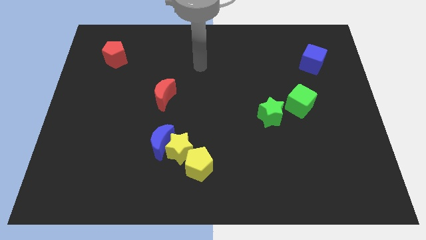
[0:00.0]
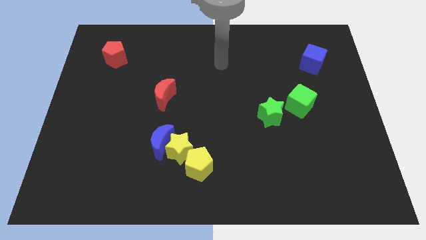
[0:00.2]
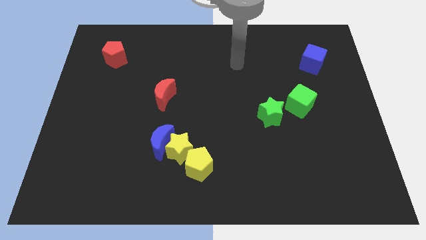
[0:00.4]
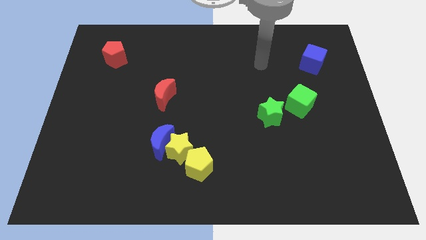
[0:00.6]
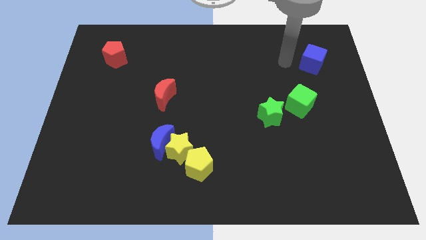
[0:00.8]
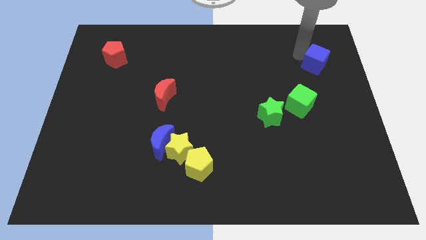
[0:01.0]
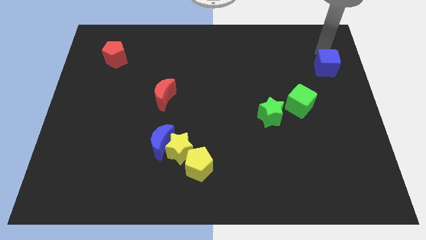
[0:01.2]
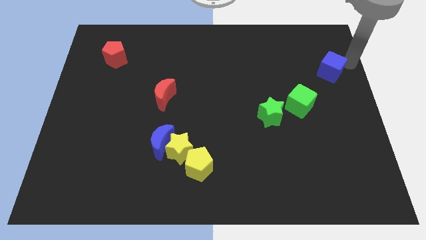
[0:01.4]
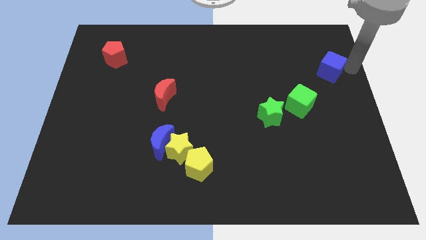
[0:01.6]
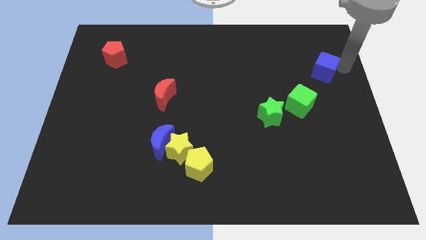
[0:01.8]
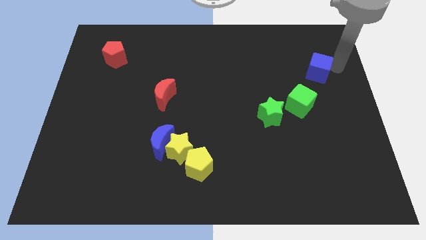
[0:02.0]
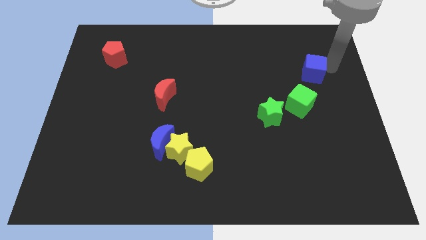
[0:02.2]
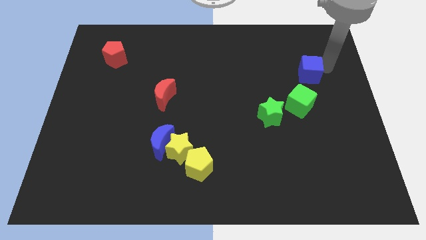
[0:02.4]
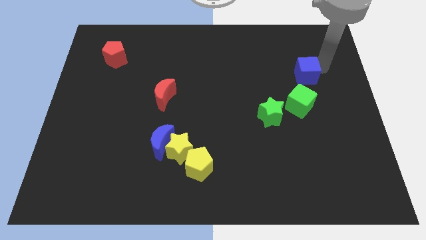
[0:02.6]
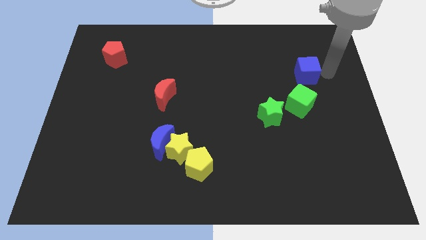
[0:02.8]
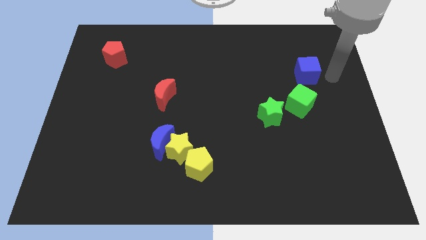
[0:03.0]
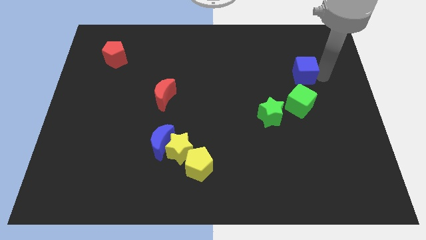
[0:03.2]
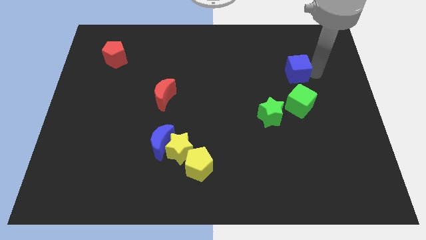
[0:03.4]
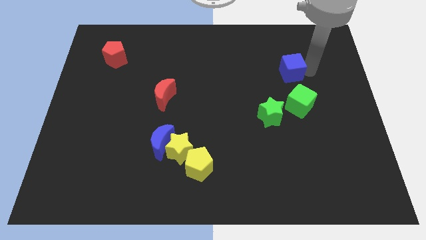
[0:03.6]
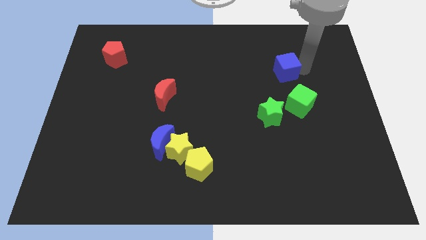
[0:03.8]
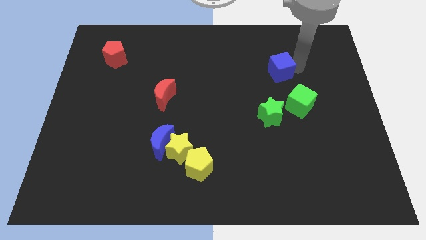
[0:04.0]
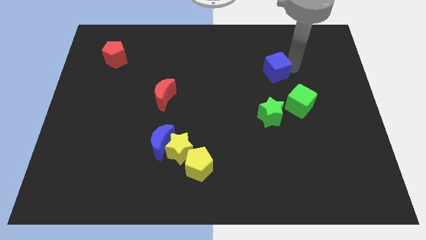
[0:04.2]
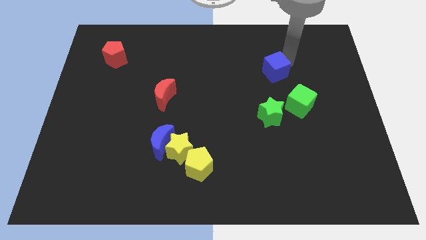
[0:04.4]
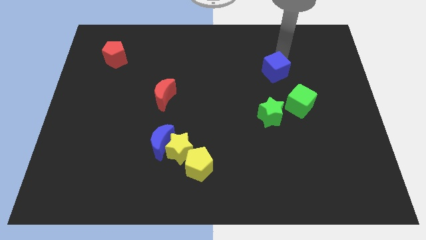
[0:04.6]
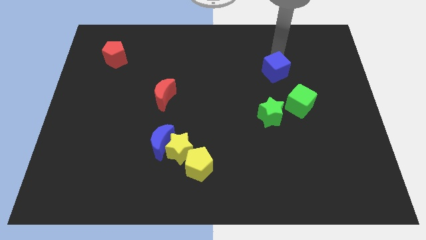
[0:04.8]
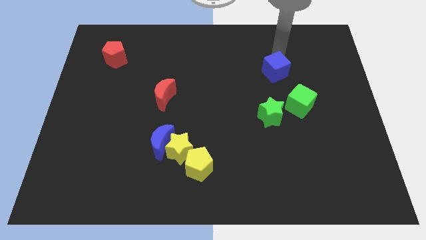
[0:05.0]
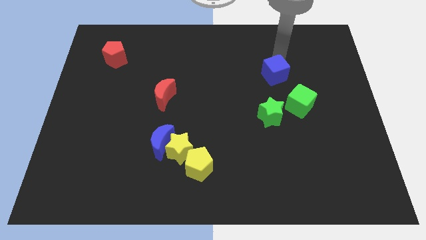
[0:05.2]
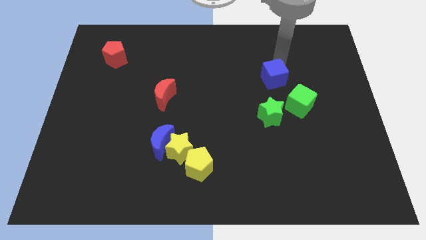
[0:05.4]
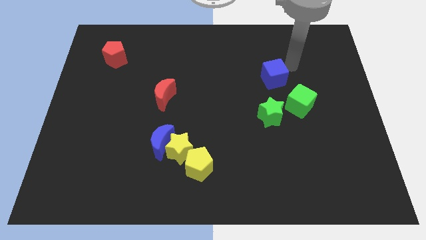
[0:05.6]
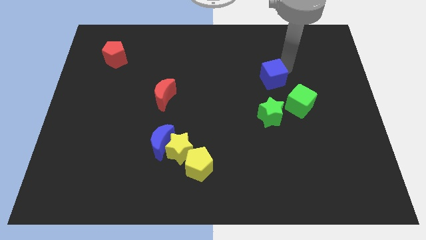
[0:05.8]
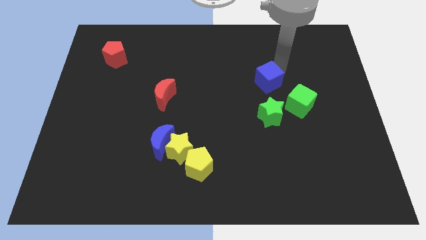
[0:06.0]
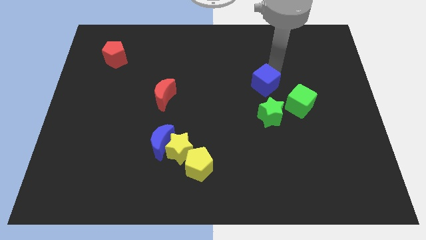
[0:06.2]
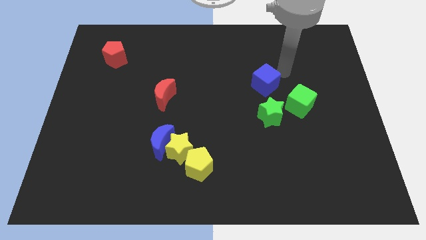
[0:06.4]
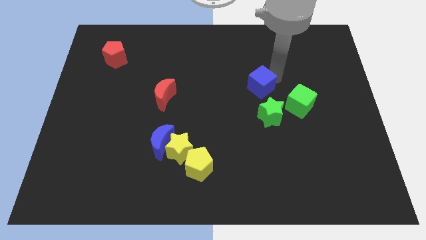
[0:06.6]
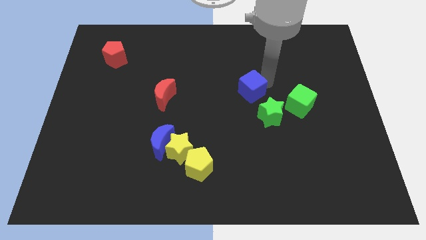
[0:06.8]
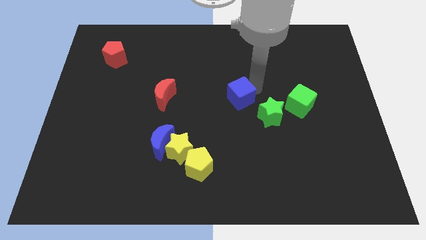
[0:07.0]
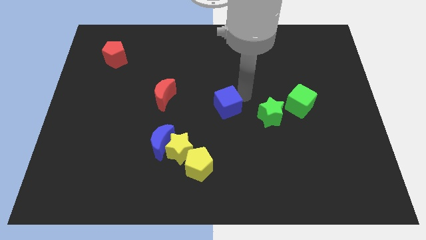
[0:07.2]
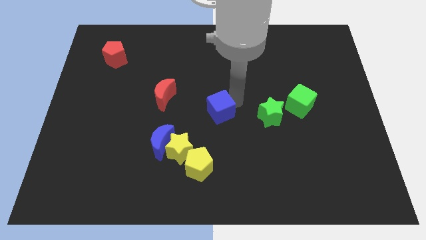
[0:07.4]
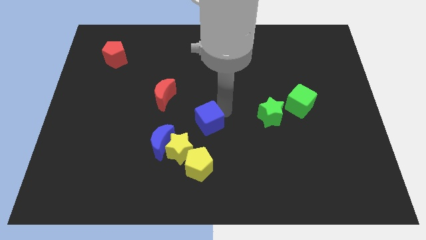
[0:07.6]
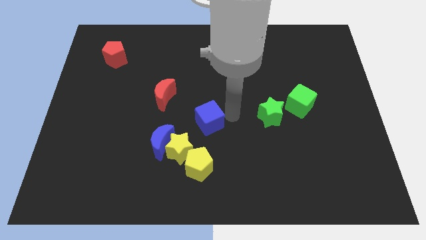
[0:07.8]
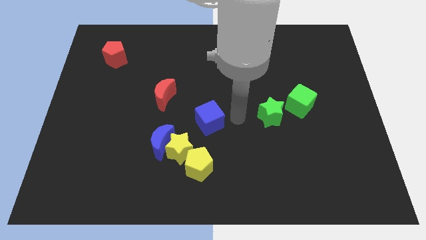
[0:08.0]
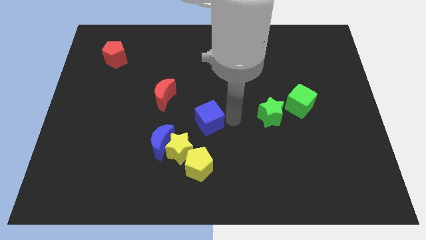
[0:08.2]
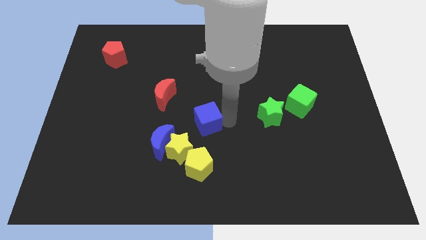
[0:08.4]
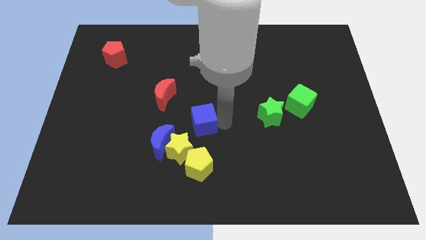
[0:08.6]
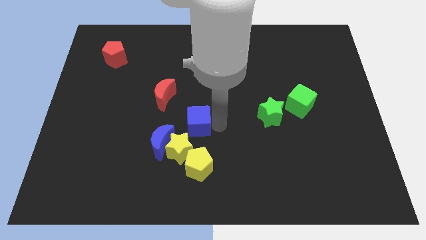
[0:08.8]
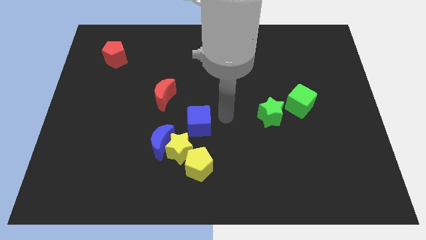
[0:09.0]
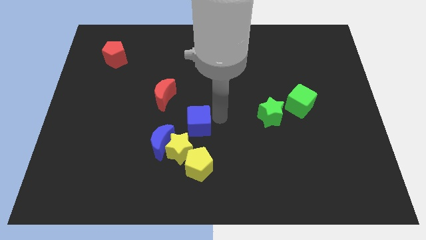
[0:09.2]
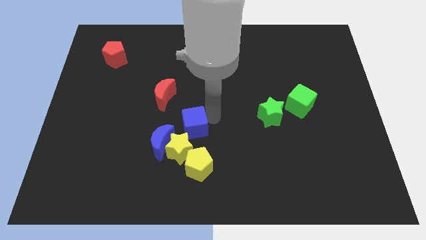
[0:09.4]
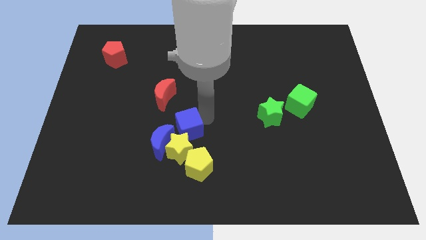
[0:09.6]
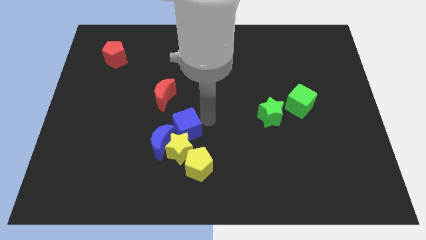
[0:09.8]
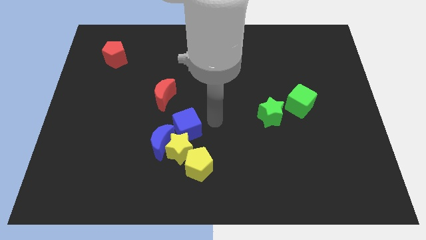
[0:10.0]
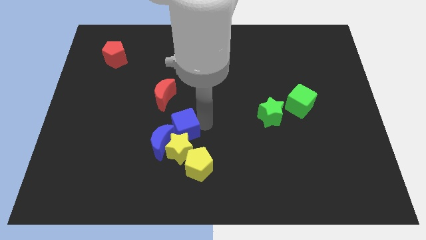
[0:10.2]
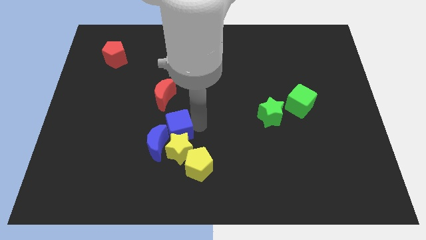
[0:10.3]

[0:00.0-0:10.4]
move the blue cube next to the blue moon

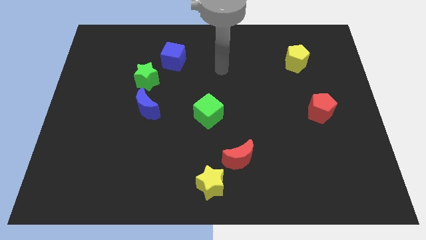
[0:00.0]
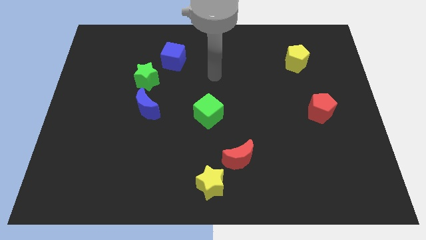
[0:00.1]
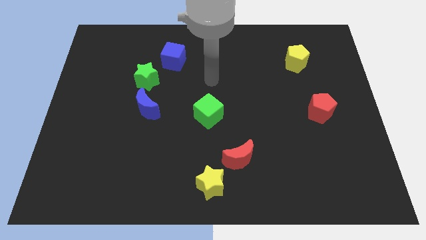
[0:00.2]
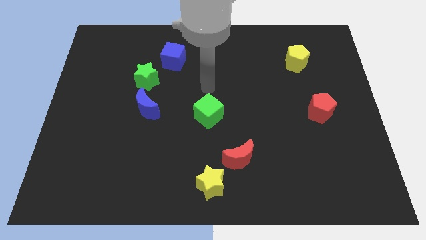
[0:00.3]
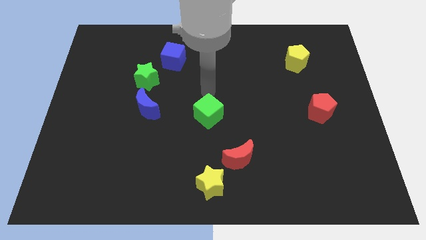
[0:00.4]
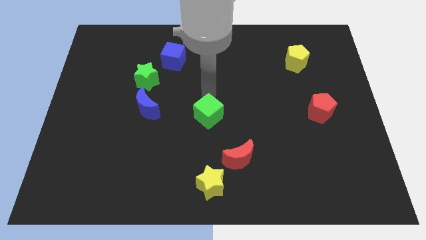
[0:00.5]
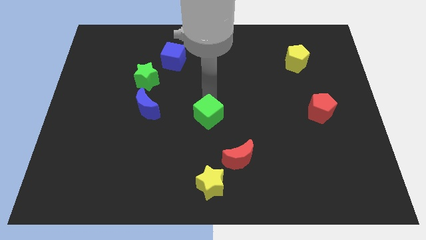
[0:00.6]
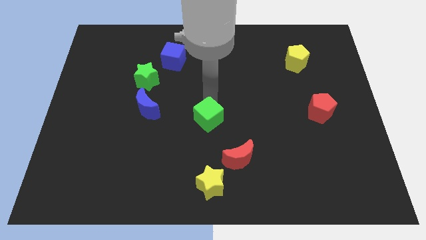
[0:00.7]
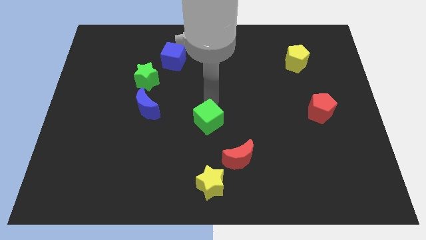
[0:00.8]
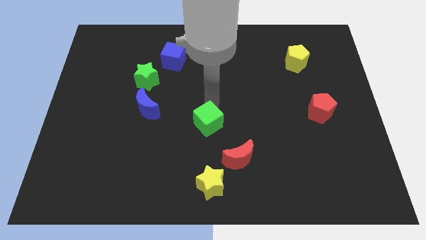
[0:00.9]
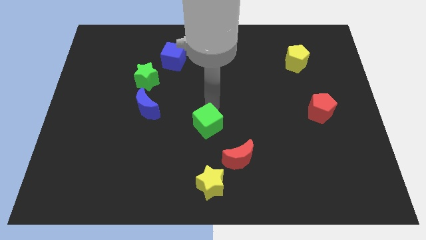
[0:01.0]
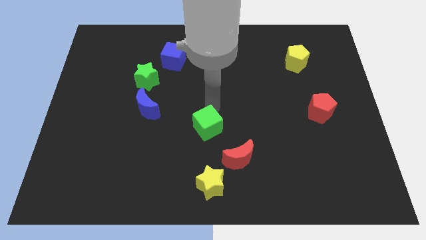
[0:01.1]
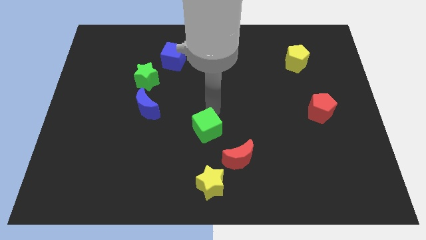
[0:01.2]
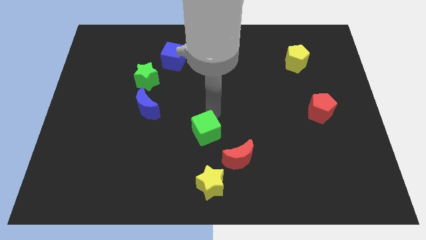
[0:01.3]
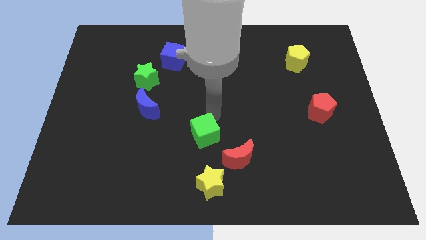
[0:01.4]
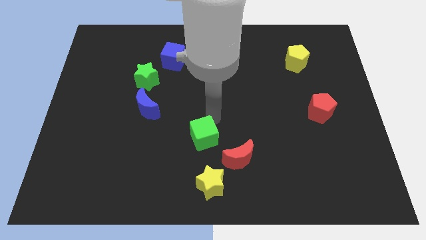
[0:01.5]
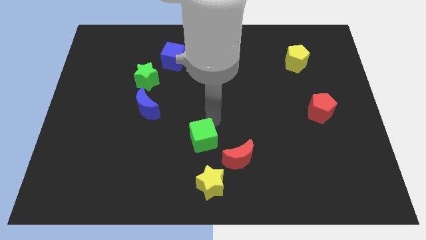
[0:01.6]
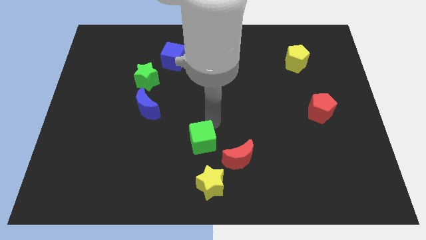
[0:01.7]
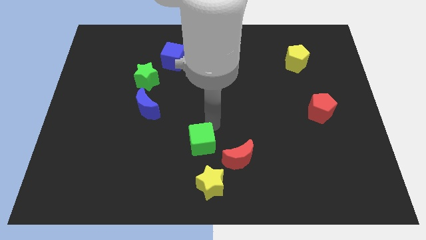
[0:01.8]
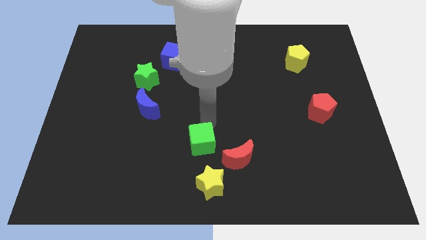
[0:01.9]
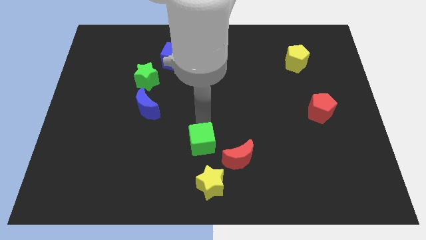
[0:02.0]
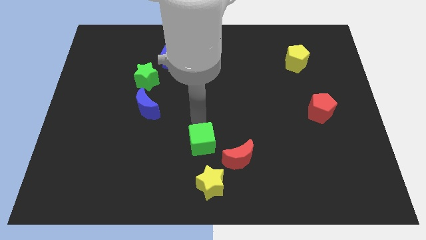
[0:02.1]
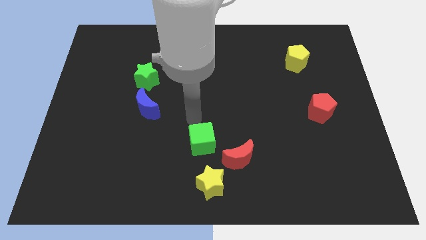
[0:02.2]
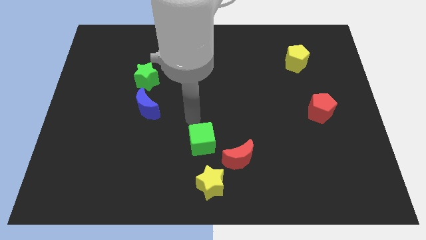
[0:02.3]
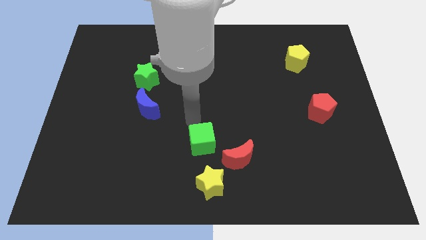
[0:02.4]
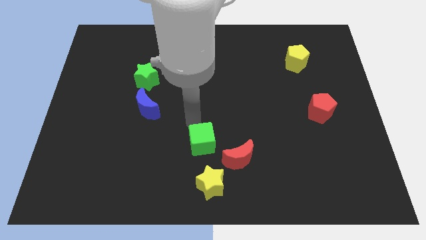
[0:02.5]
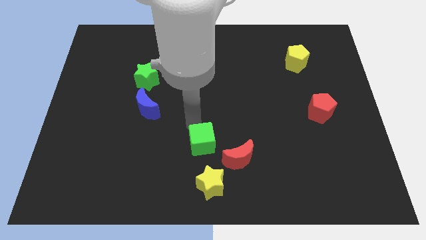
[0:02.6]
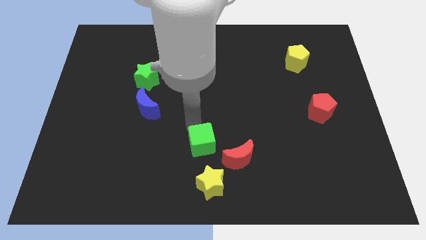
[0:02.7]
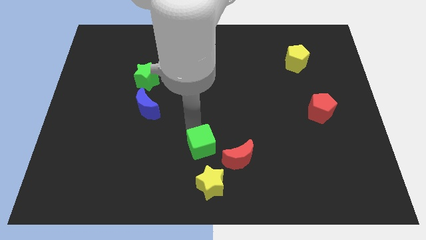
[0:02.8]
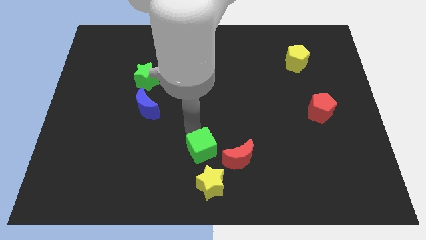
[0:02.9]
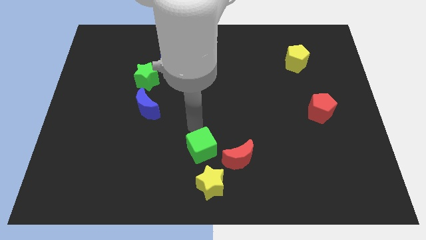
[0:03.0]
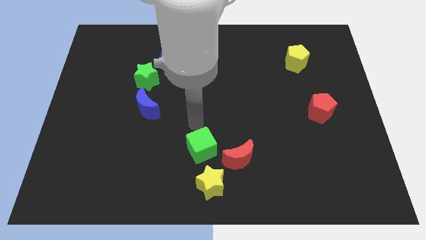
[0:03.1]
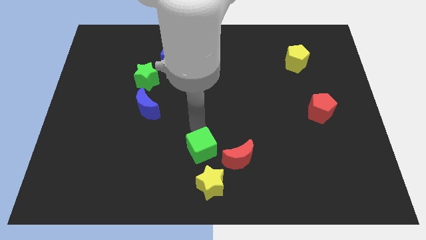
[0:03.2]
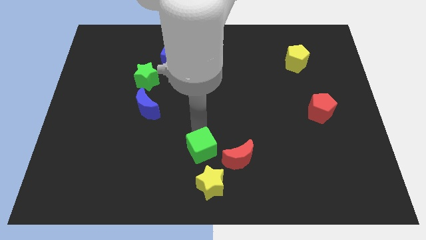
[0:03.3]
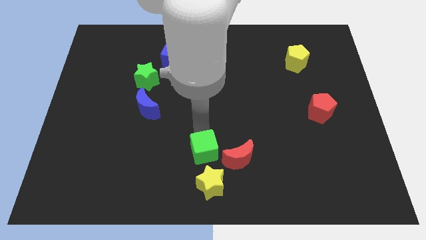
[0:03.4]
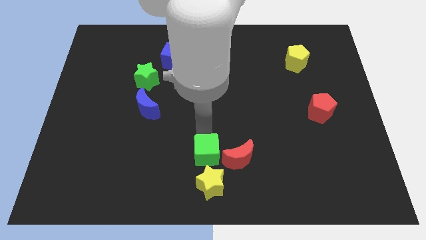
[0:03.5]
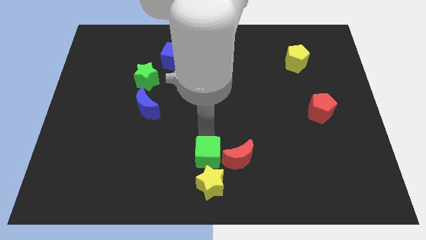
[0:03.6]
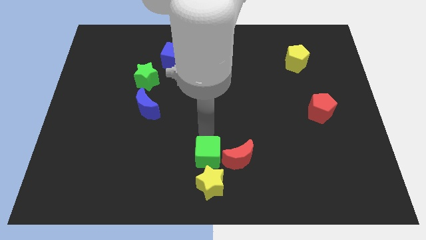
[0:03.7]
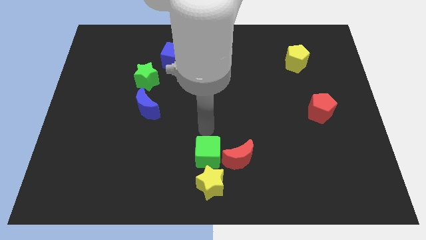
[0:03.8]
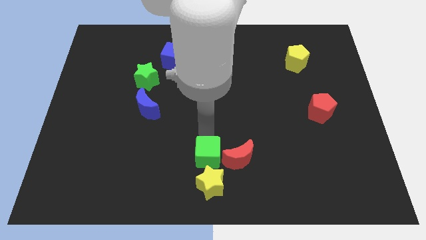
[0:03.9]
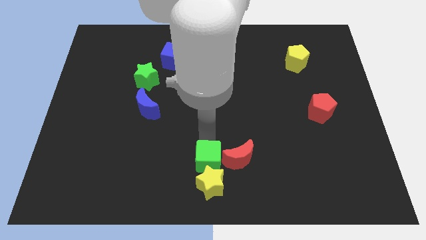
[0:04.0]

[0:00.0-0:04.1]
push the green cube close to the yellow star
